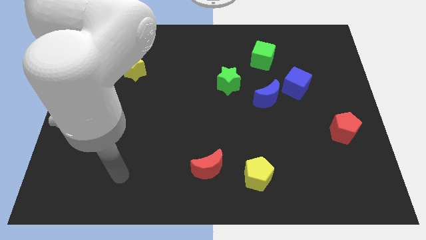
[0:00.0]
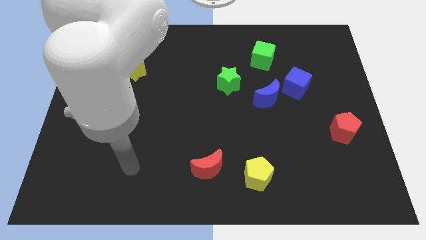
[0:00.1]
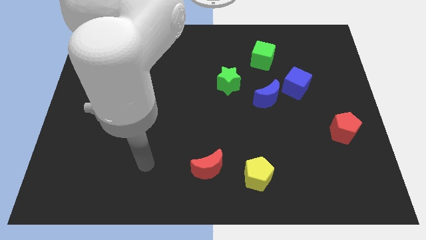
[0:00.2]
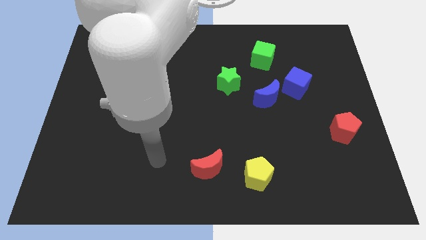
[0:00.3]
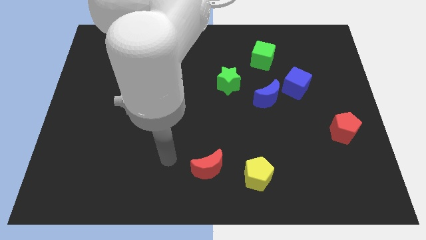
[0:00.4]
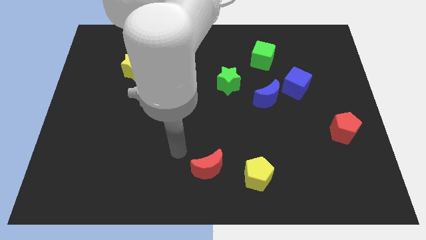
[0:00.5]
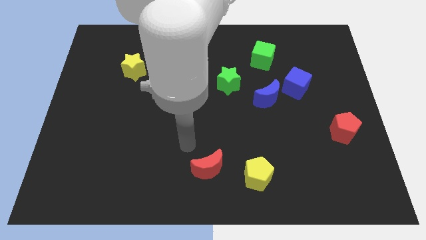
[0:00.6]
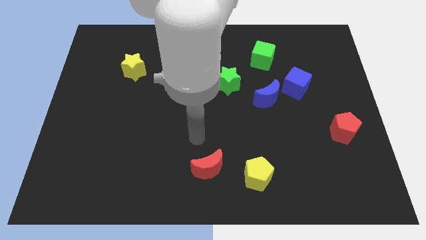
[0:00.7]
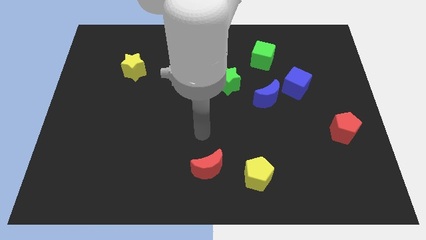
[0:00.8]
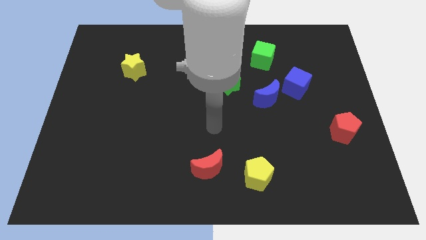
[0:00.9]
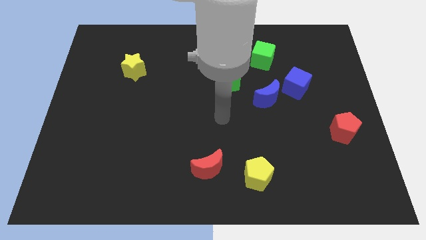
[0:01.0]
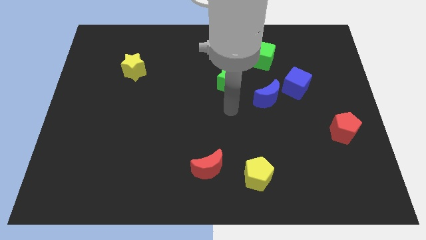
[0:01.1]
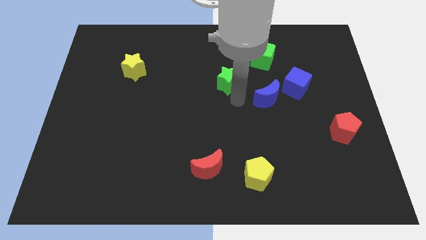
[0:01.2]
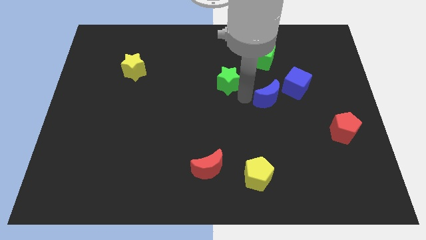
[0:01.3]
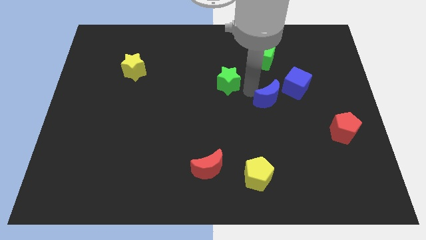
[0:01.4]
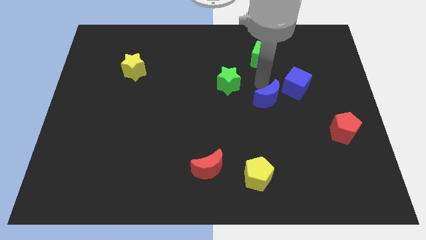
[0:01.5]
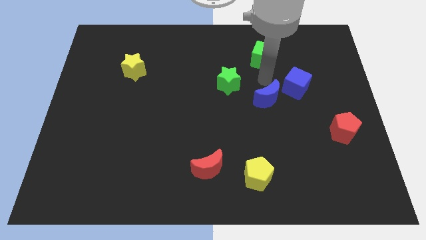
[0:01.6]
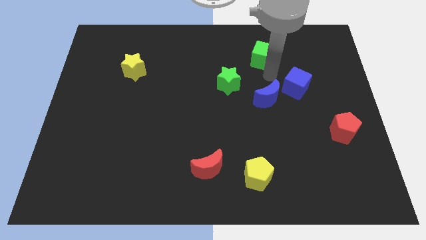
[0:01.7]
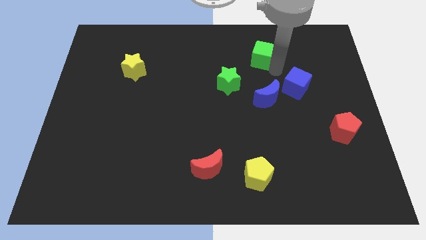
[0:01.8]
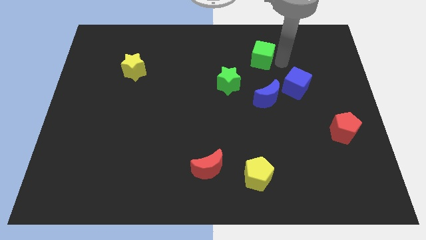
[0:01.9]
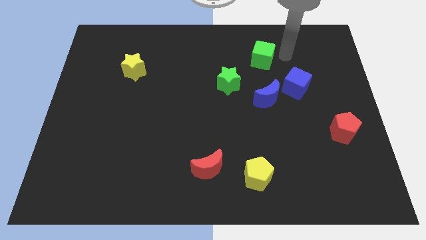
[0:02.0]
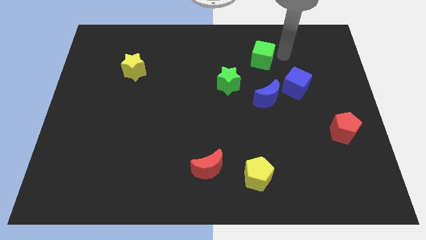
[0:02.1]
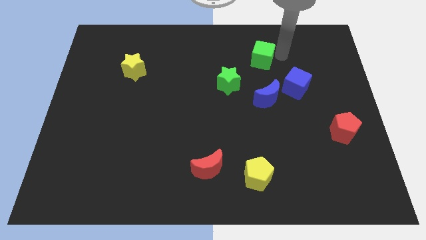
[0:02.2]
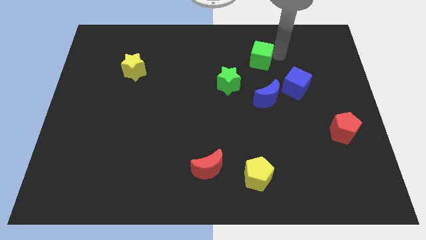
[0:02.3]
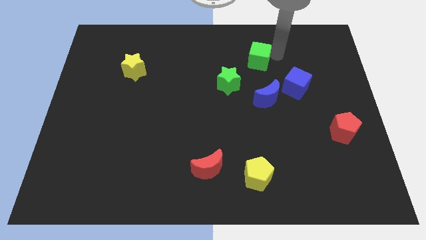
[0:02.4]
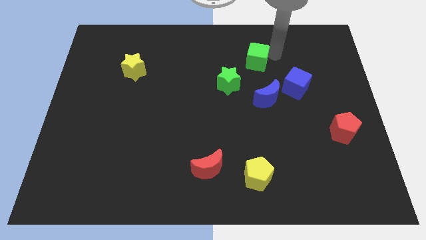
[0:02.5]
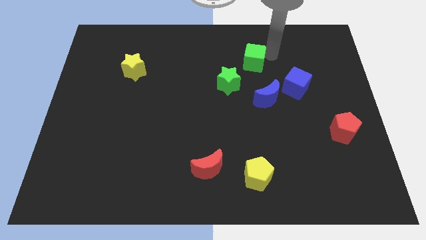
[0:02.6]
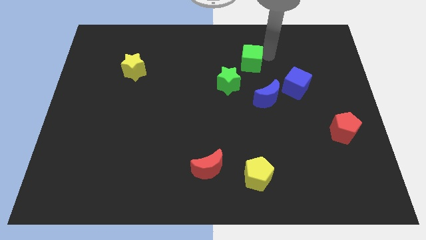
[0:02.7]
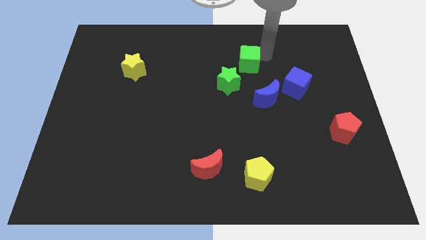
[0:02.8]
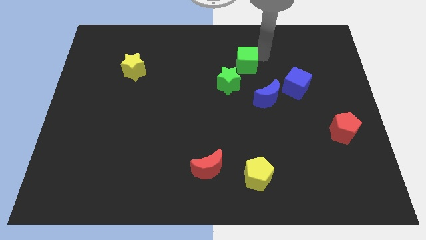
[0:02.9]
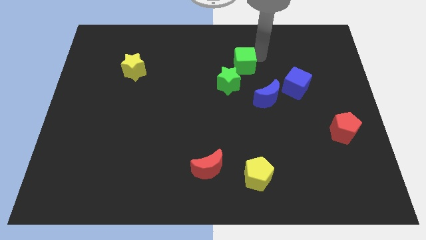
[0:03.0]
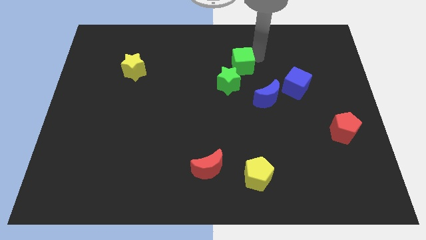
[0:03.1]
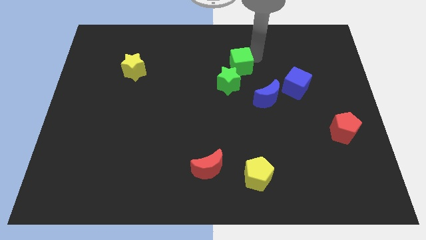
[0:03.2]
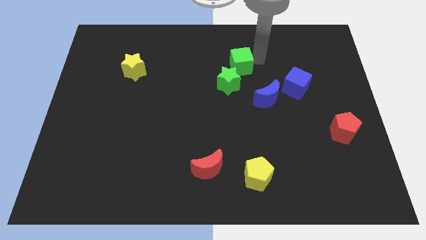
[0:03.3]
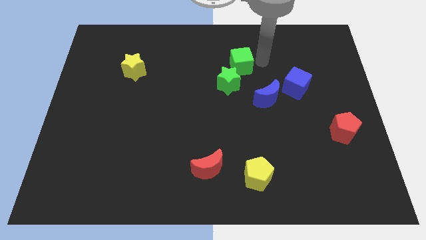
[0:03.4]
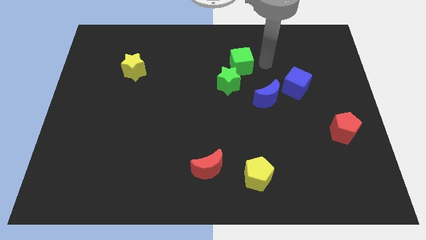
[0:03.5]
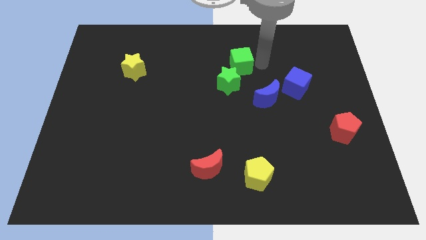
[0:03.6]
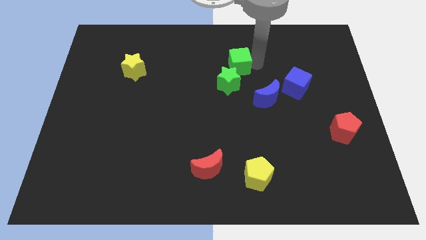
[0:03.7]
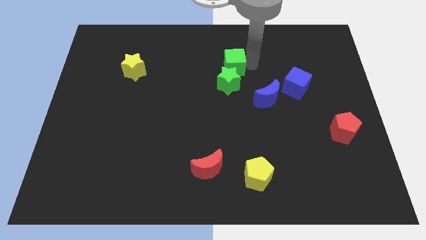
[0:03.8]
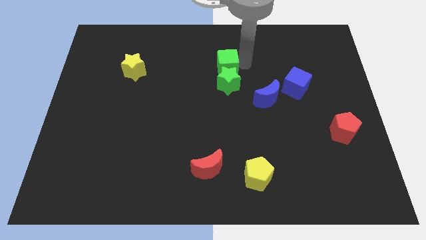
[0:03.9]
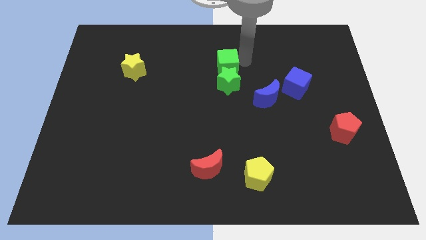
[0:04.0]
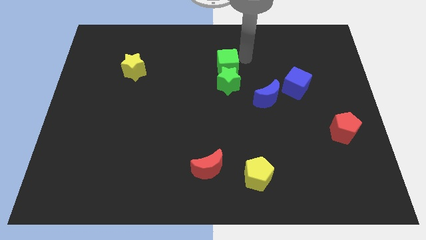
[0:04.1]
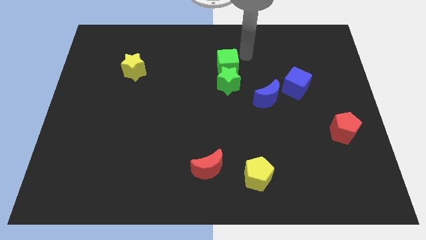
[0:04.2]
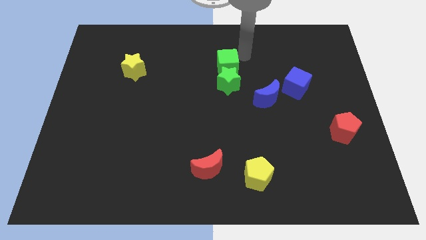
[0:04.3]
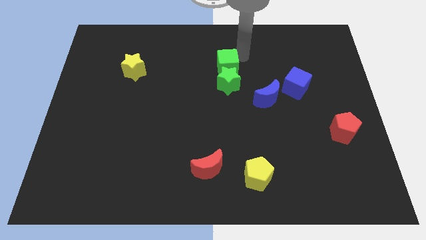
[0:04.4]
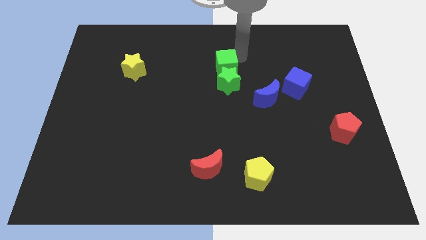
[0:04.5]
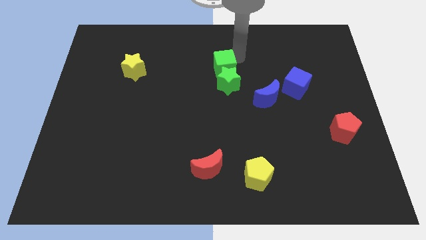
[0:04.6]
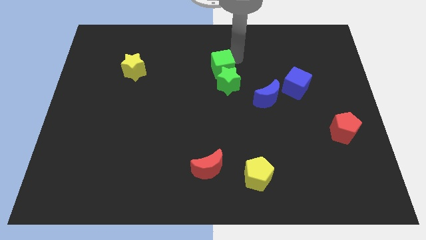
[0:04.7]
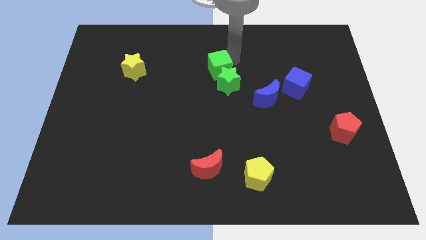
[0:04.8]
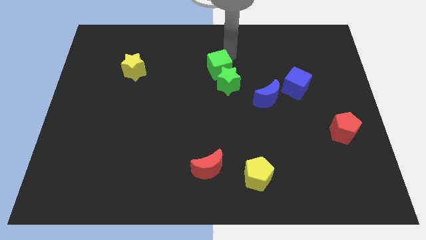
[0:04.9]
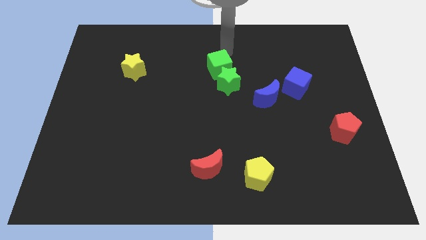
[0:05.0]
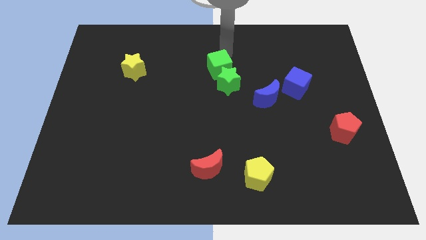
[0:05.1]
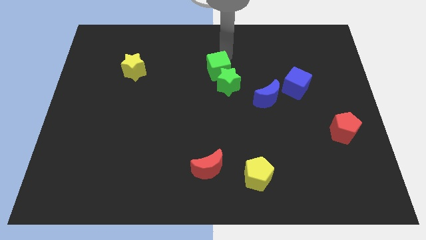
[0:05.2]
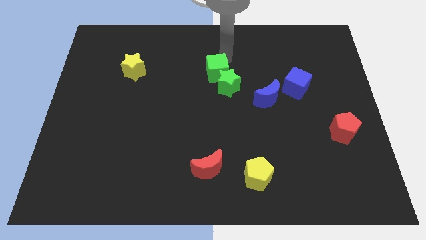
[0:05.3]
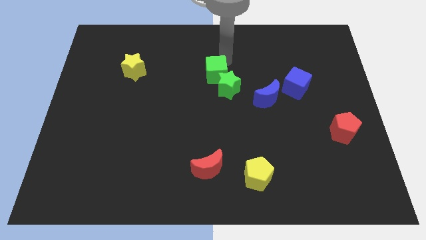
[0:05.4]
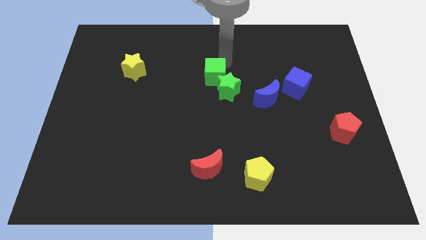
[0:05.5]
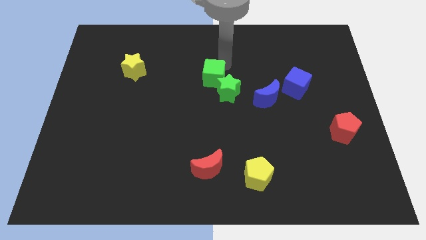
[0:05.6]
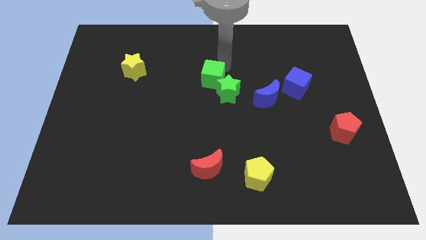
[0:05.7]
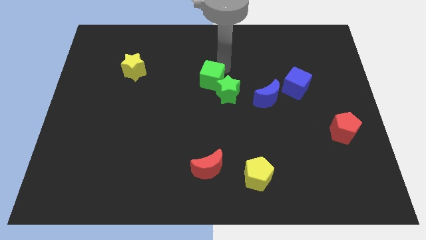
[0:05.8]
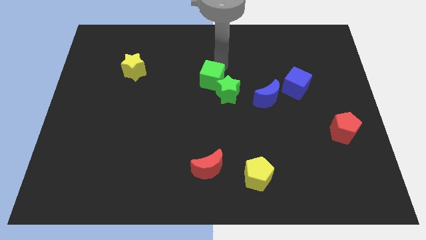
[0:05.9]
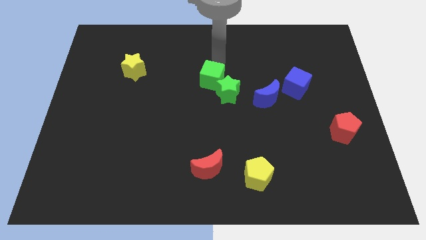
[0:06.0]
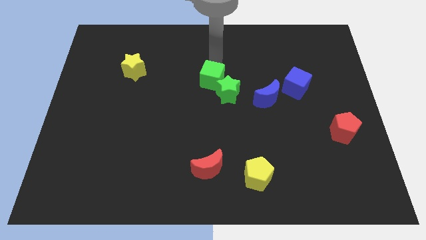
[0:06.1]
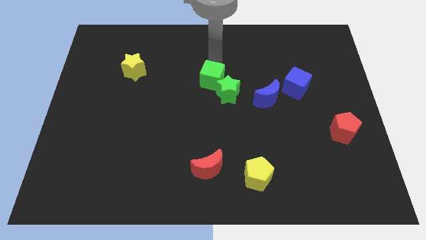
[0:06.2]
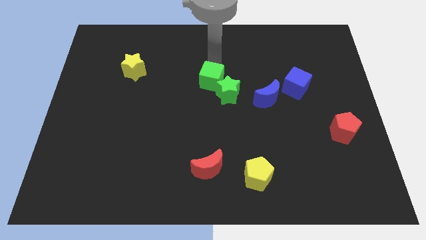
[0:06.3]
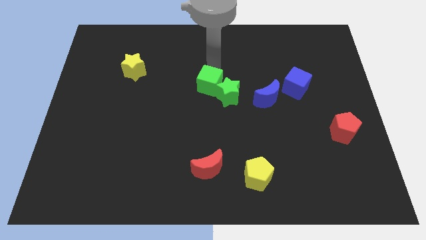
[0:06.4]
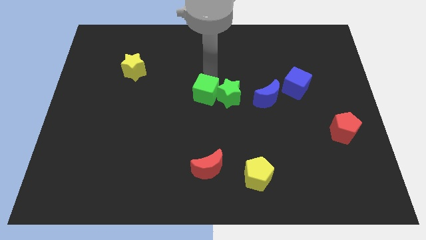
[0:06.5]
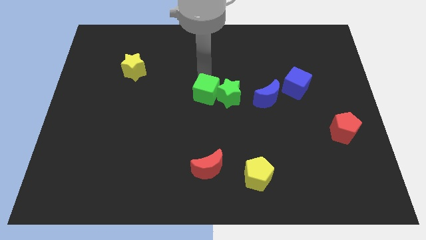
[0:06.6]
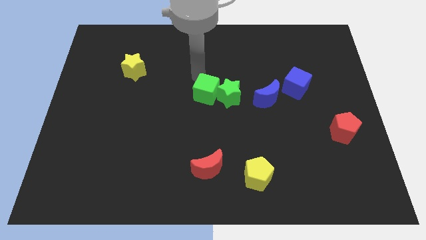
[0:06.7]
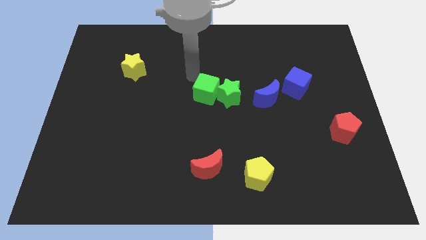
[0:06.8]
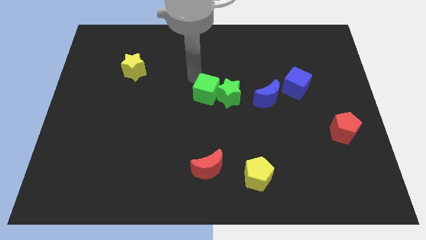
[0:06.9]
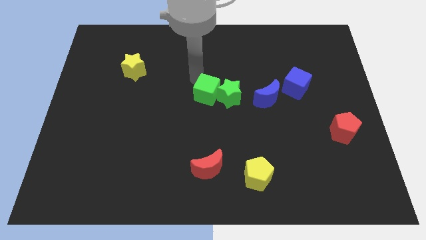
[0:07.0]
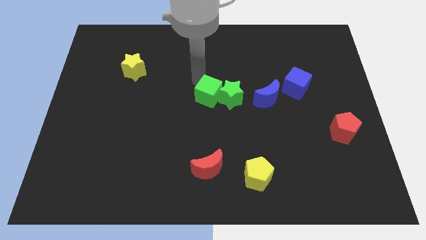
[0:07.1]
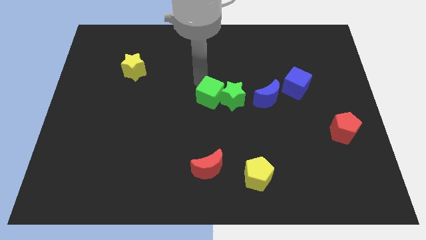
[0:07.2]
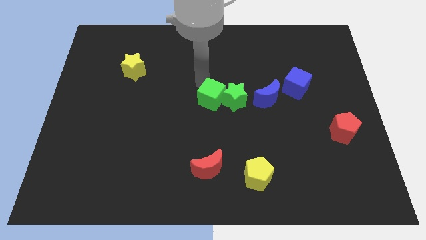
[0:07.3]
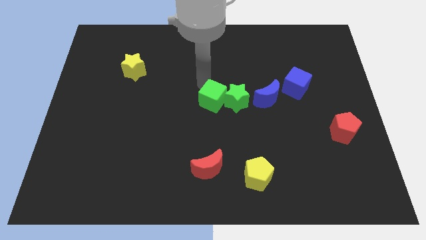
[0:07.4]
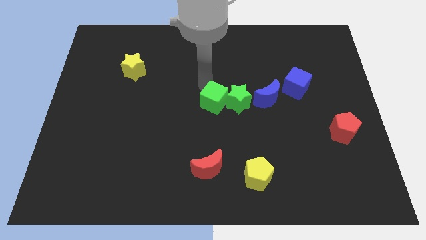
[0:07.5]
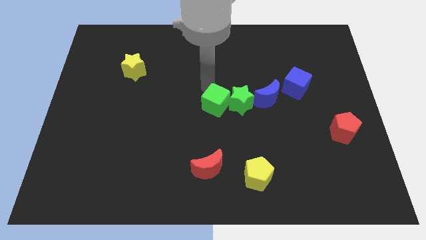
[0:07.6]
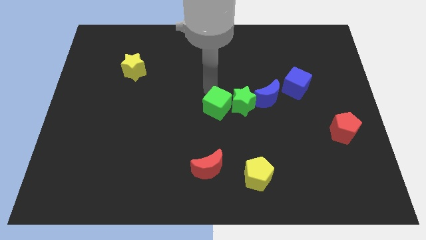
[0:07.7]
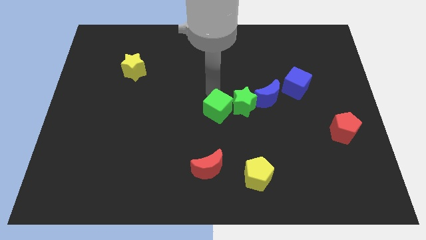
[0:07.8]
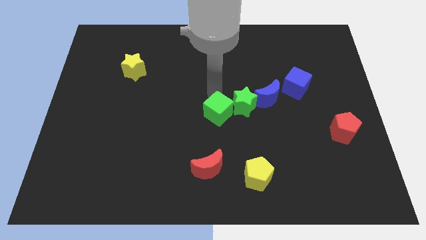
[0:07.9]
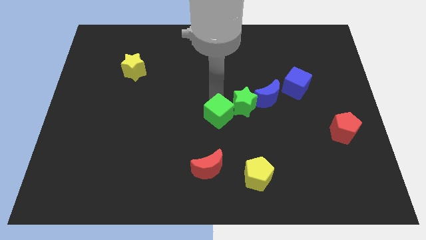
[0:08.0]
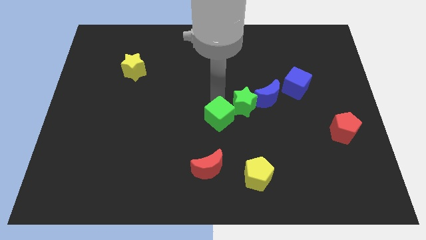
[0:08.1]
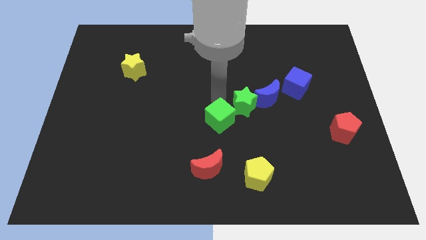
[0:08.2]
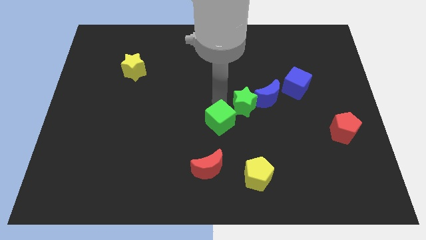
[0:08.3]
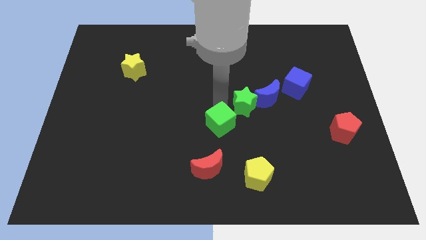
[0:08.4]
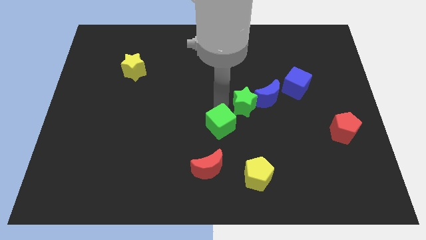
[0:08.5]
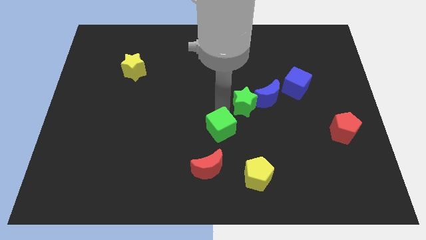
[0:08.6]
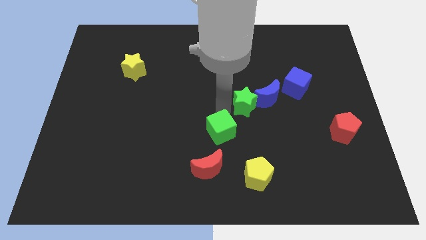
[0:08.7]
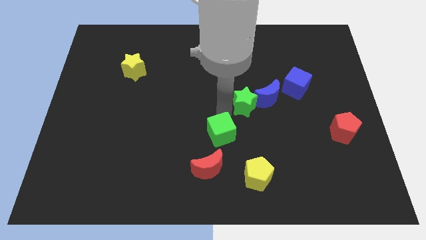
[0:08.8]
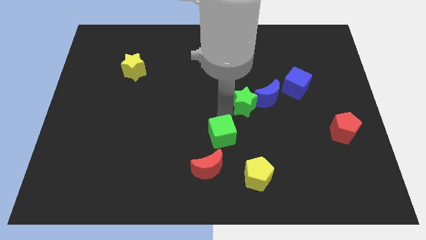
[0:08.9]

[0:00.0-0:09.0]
push the green cube diagonally up and to the left of the yellow pentagon
